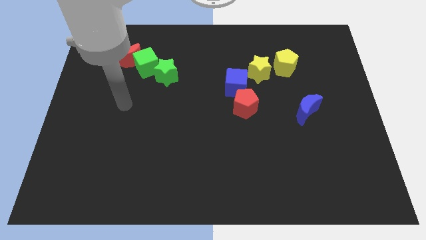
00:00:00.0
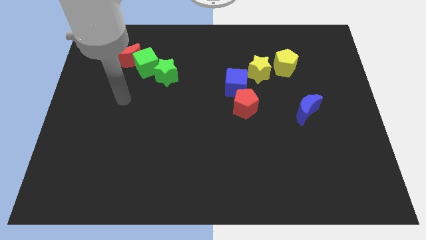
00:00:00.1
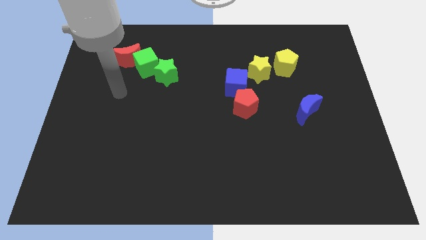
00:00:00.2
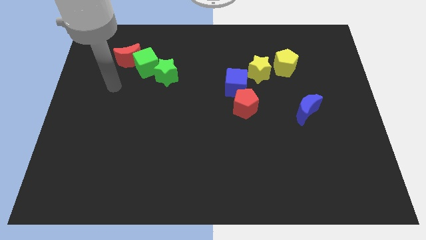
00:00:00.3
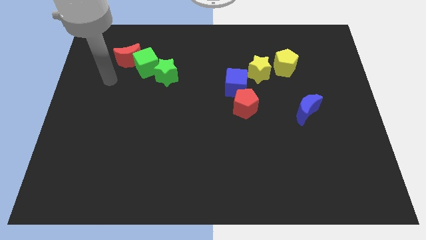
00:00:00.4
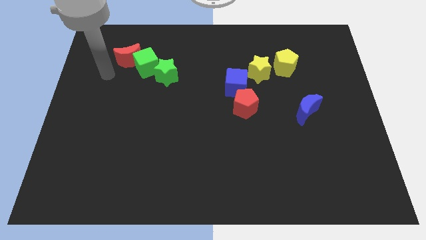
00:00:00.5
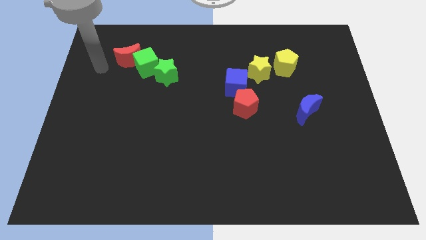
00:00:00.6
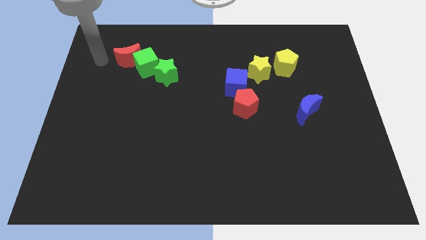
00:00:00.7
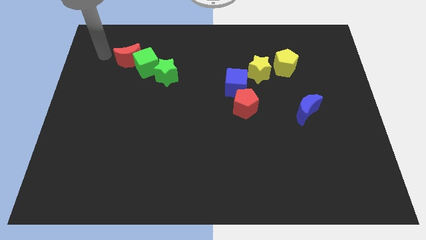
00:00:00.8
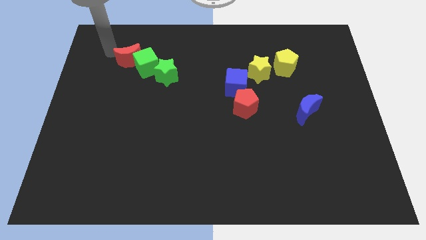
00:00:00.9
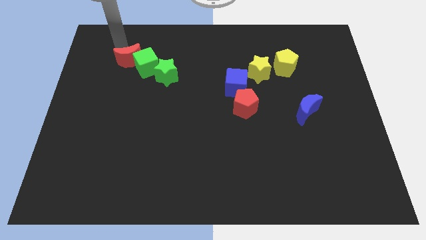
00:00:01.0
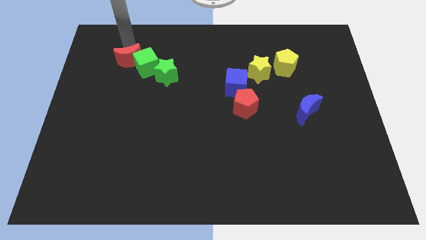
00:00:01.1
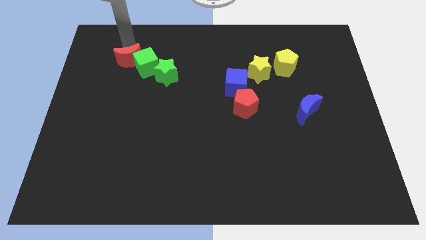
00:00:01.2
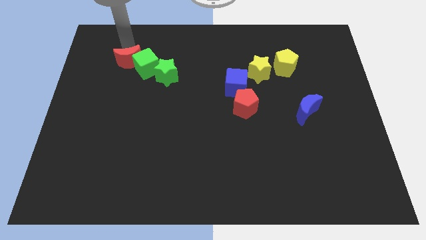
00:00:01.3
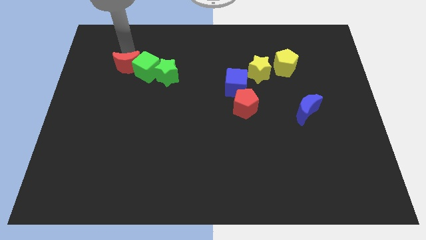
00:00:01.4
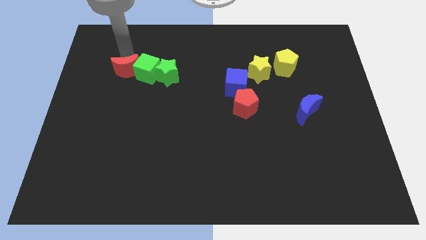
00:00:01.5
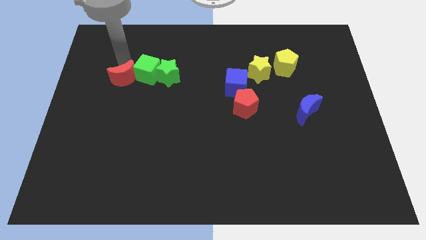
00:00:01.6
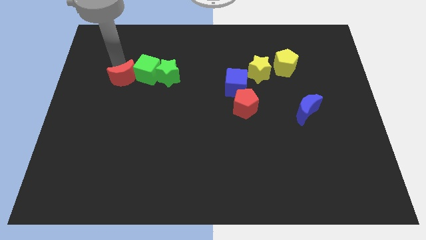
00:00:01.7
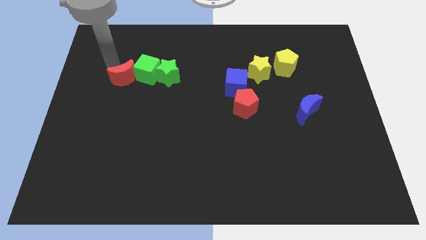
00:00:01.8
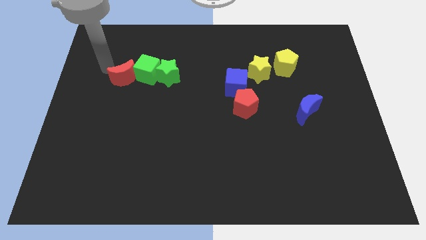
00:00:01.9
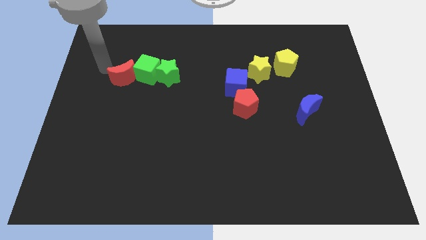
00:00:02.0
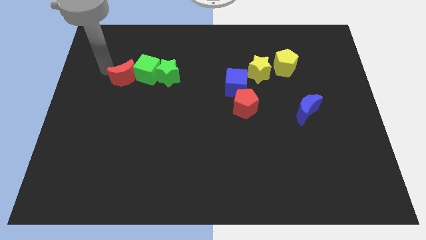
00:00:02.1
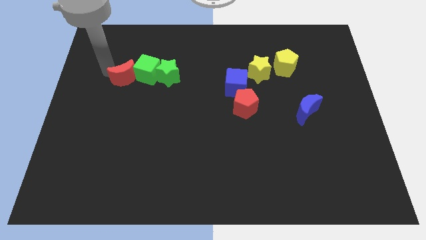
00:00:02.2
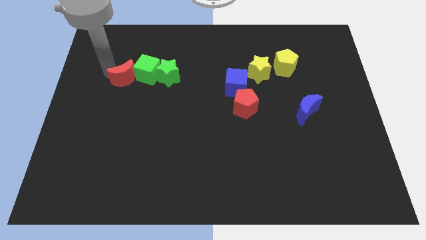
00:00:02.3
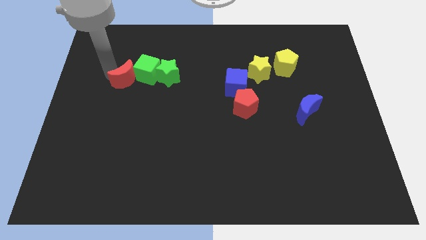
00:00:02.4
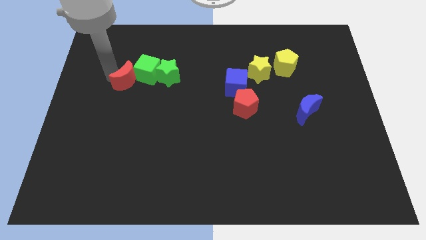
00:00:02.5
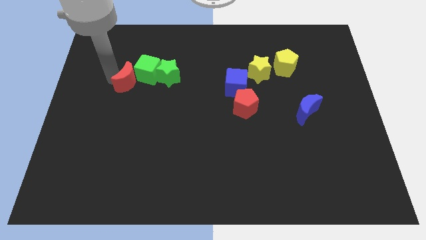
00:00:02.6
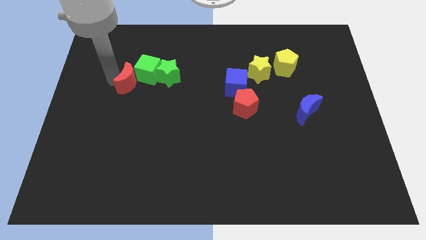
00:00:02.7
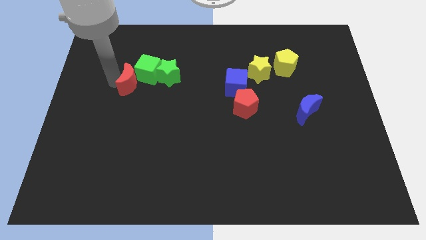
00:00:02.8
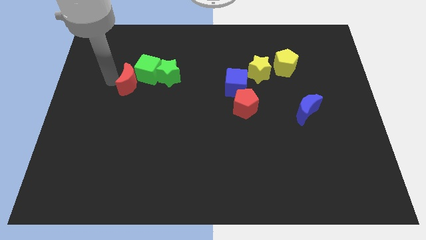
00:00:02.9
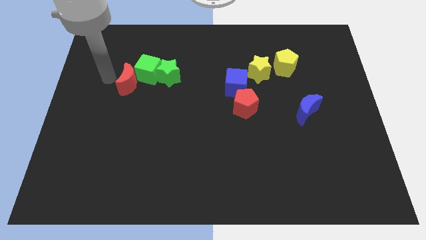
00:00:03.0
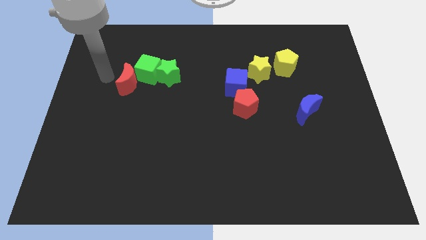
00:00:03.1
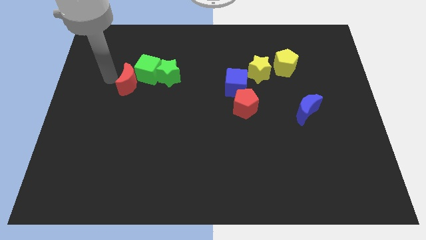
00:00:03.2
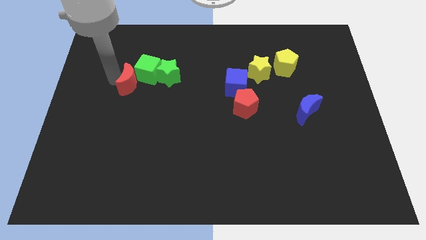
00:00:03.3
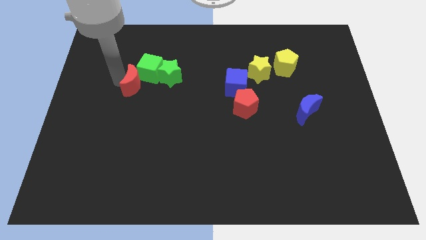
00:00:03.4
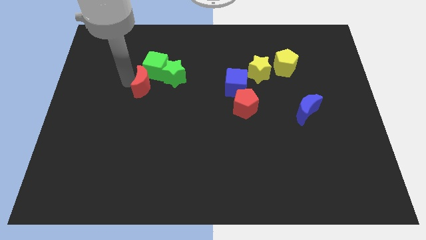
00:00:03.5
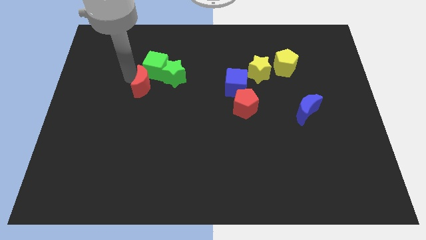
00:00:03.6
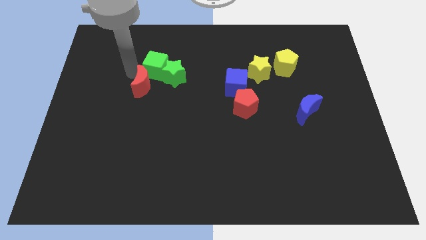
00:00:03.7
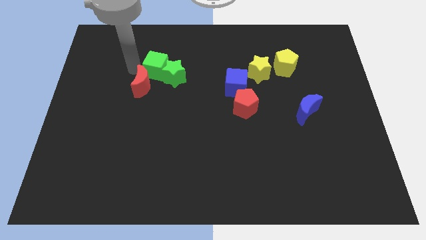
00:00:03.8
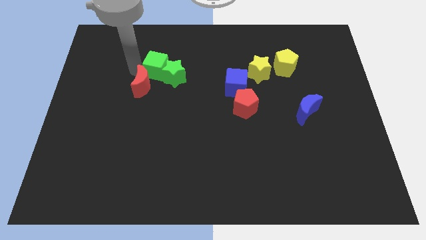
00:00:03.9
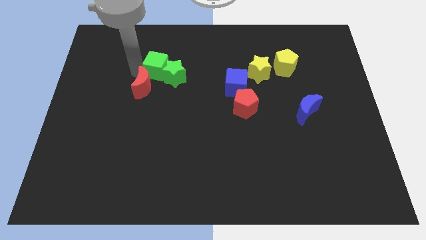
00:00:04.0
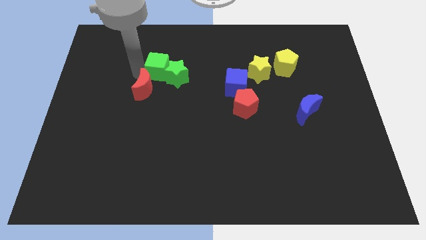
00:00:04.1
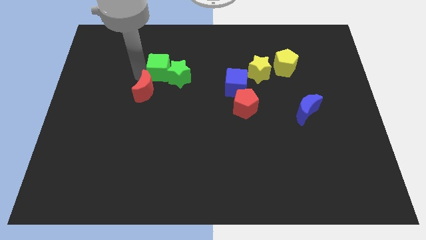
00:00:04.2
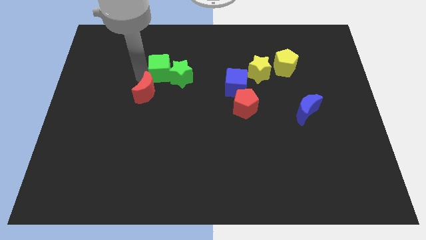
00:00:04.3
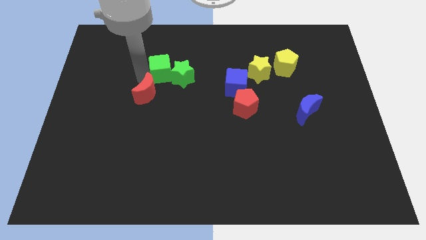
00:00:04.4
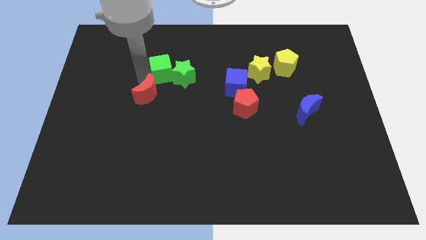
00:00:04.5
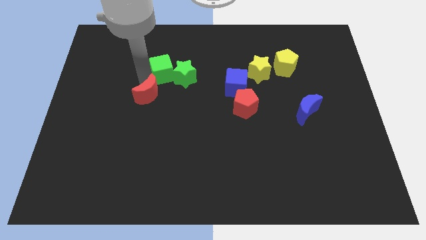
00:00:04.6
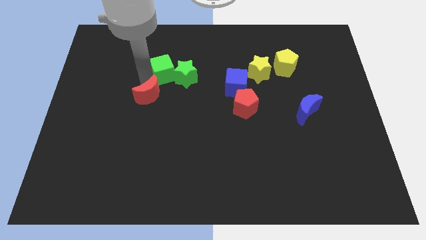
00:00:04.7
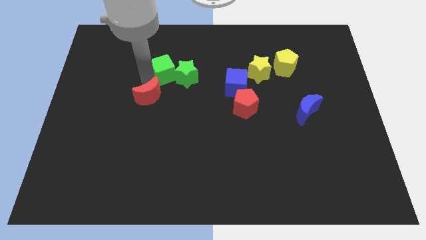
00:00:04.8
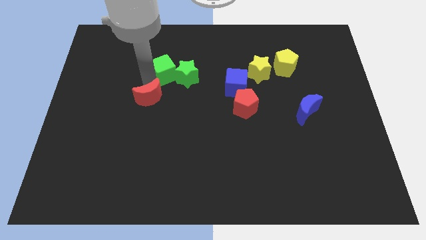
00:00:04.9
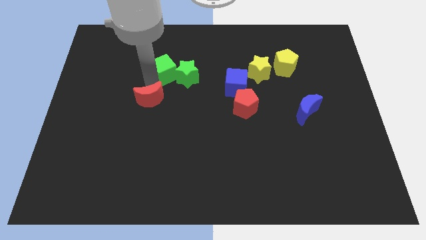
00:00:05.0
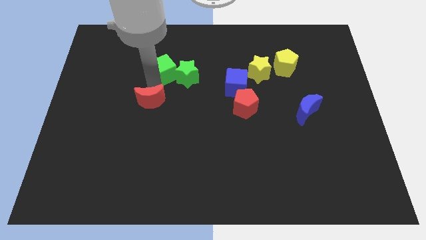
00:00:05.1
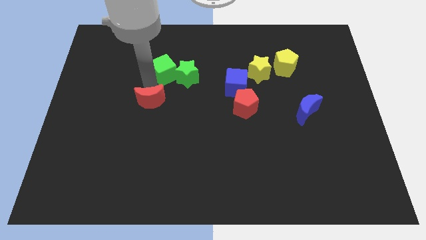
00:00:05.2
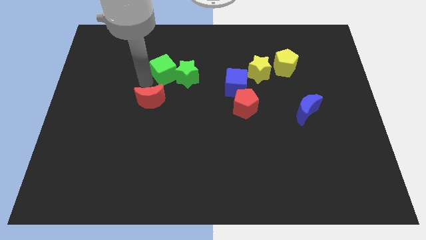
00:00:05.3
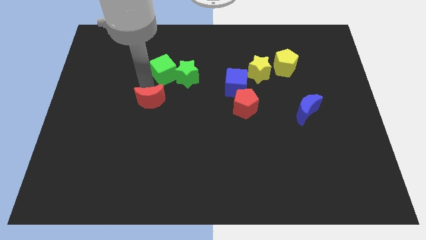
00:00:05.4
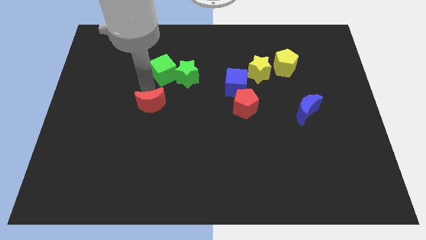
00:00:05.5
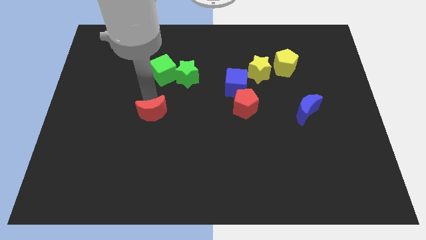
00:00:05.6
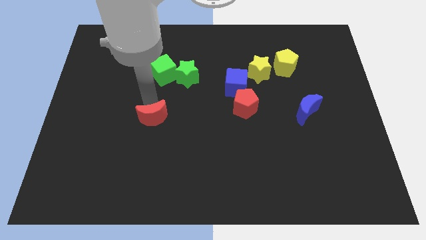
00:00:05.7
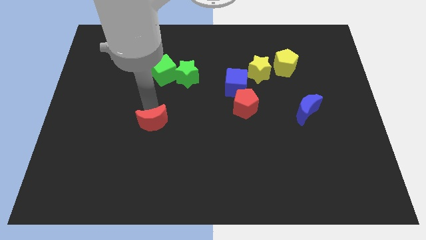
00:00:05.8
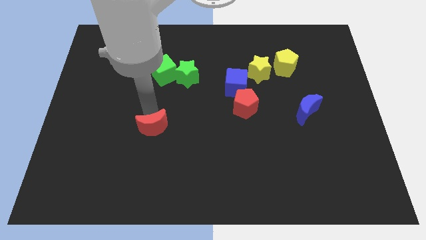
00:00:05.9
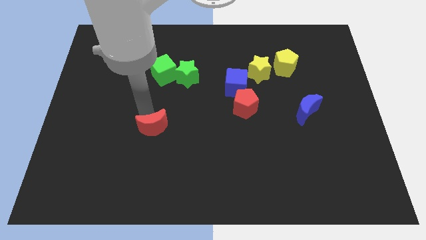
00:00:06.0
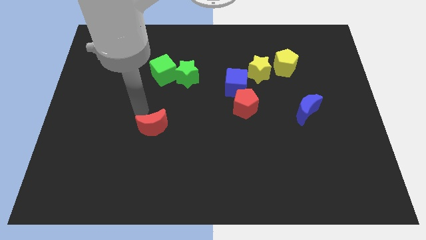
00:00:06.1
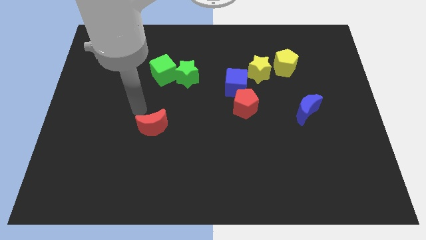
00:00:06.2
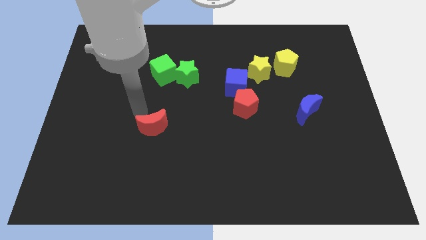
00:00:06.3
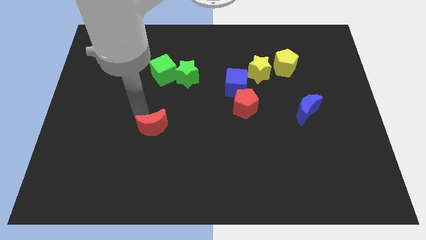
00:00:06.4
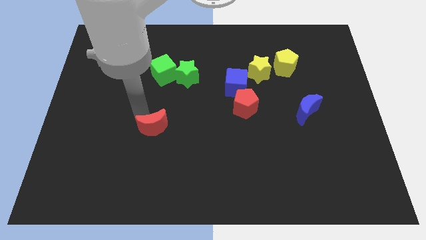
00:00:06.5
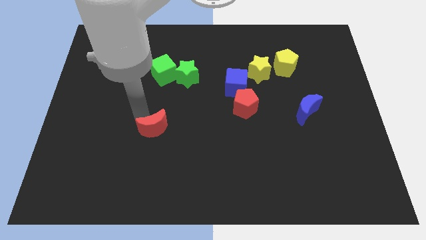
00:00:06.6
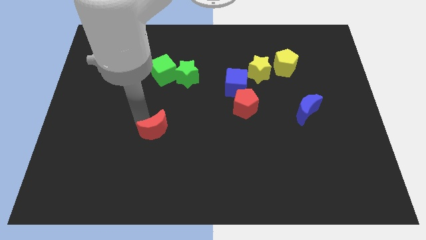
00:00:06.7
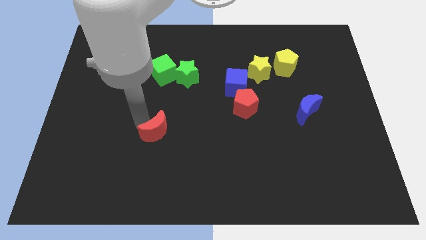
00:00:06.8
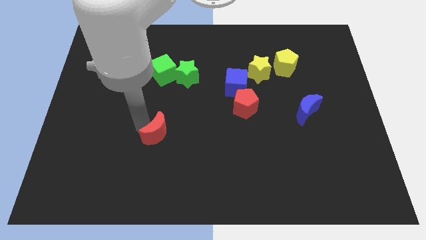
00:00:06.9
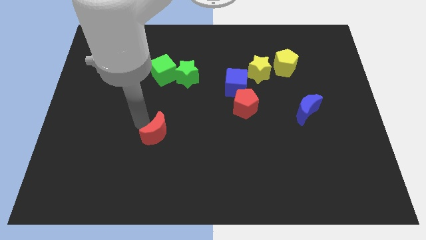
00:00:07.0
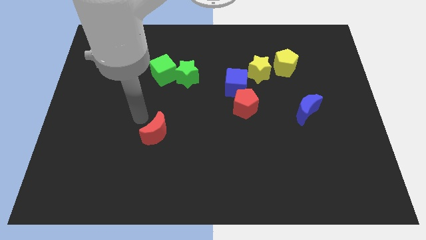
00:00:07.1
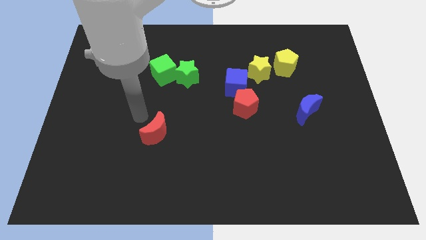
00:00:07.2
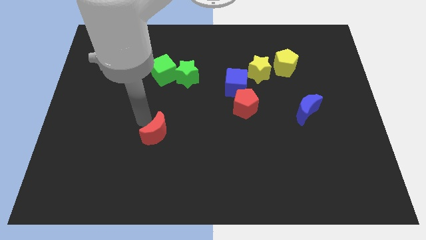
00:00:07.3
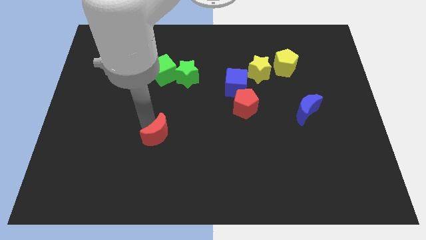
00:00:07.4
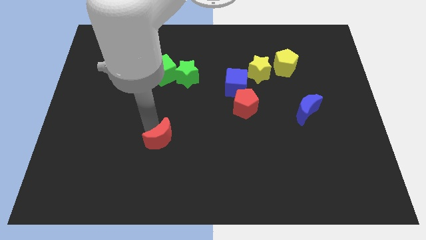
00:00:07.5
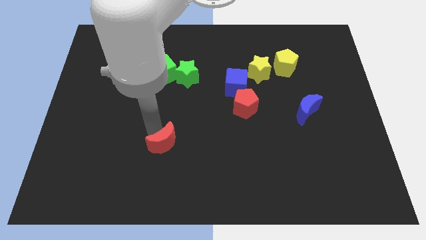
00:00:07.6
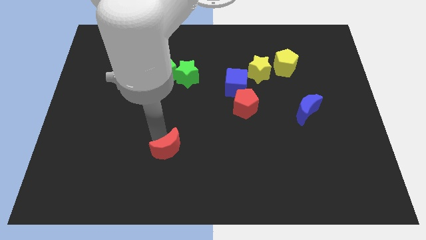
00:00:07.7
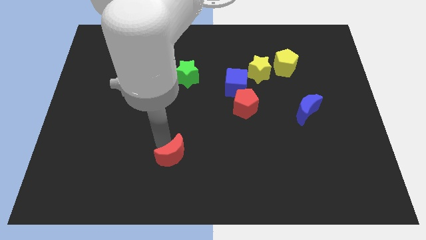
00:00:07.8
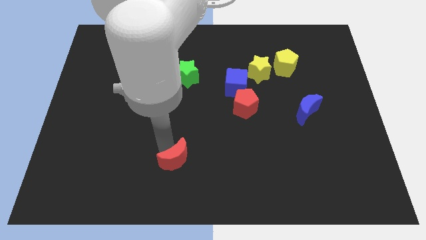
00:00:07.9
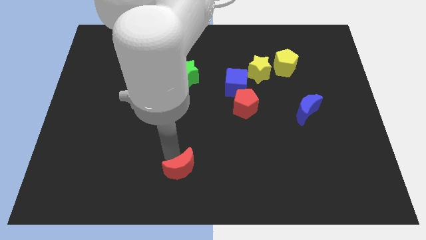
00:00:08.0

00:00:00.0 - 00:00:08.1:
move the red moon to the bottom side
